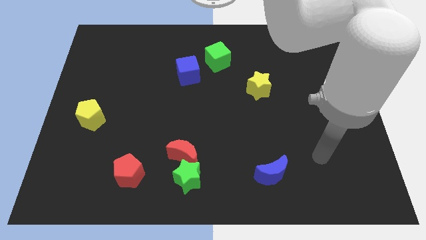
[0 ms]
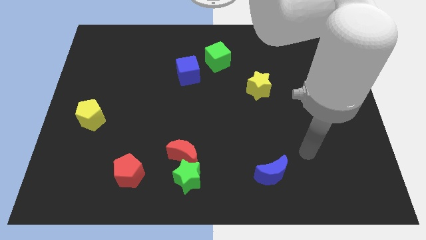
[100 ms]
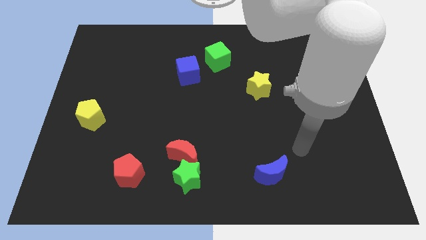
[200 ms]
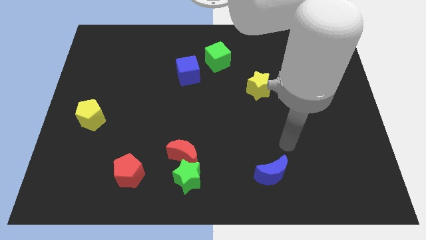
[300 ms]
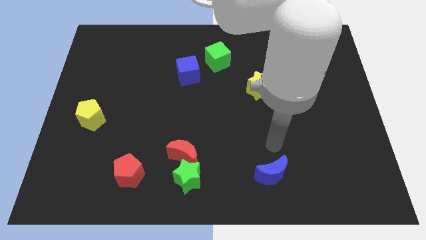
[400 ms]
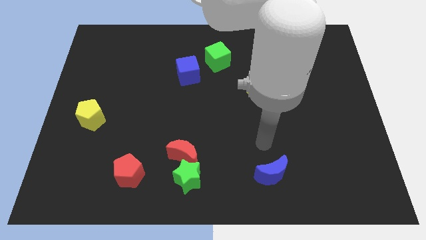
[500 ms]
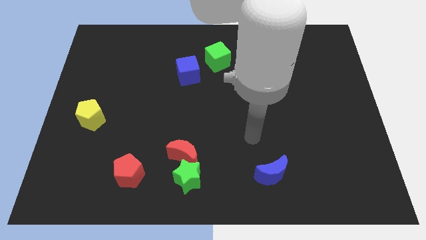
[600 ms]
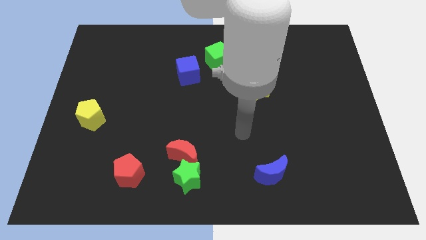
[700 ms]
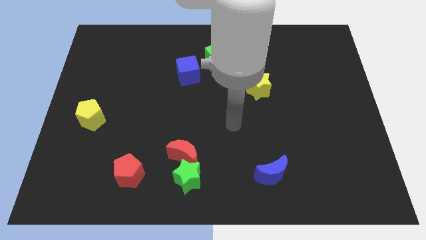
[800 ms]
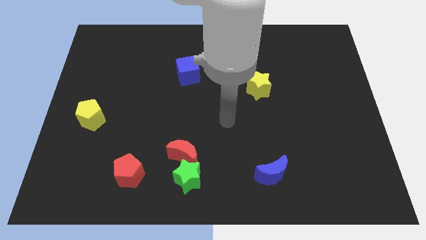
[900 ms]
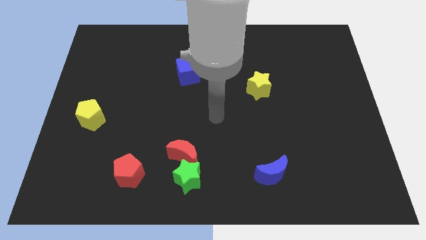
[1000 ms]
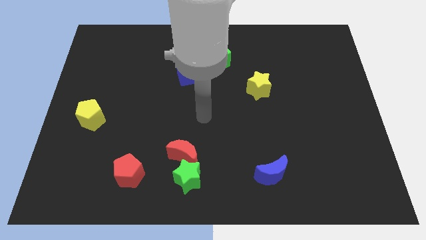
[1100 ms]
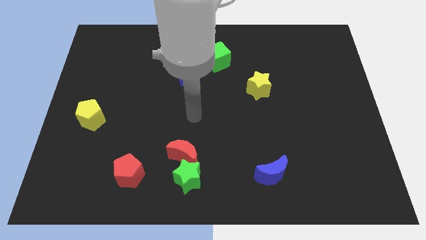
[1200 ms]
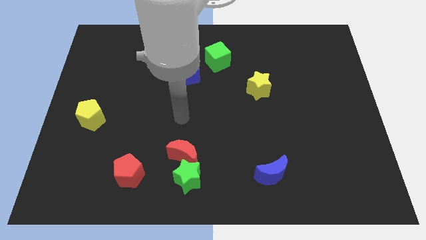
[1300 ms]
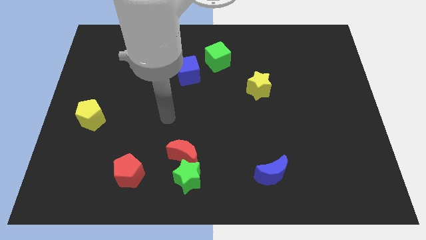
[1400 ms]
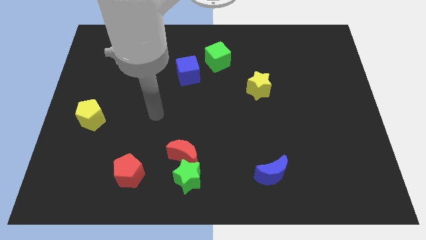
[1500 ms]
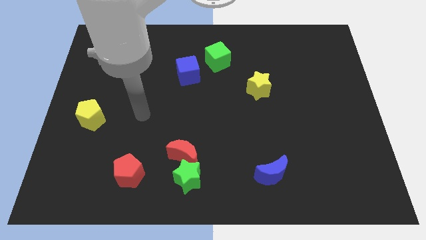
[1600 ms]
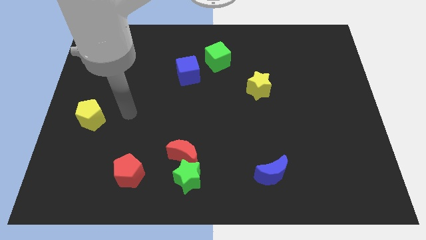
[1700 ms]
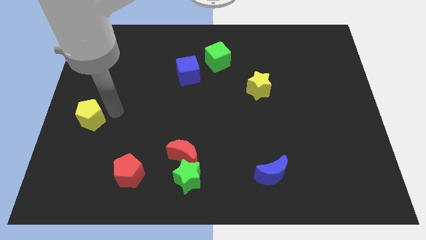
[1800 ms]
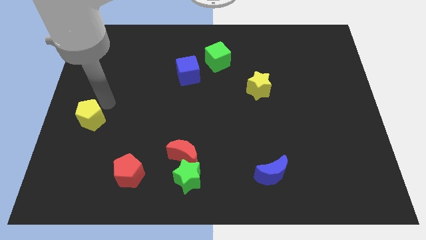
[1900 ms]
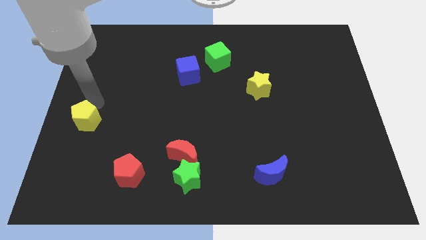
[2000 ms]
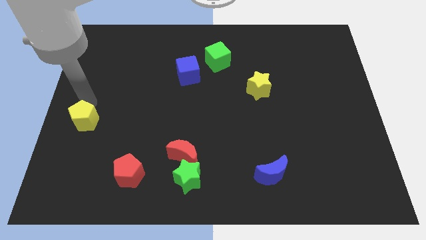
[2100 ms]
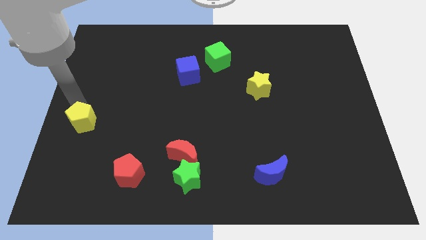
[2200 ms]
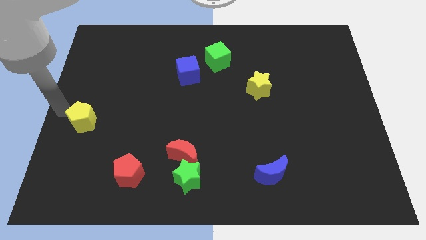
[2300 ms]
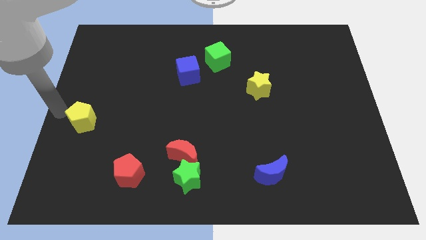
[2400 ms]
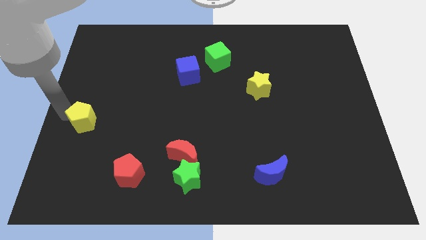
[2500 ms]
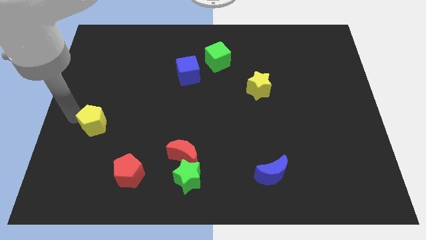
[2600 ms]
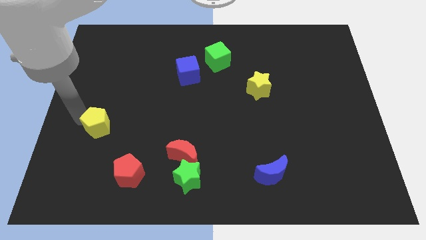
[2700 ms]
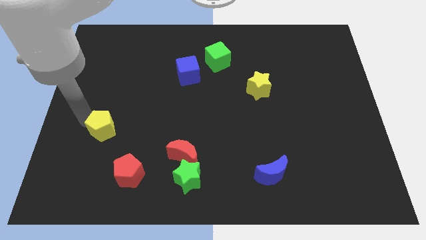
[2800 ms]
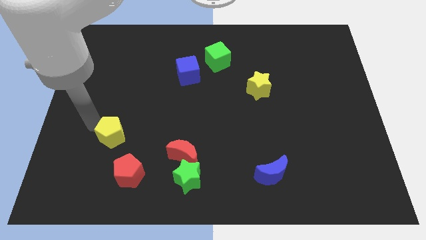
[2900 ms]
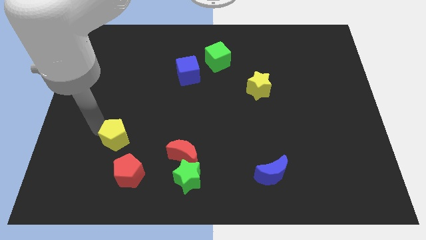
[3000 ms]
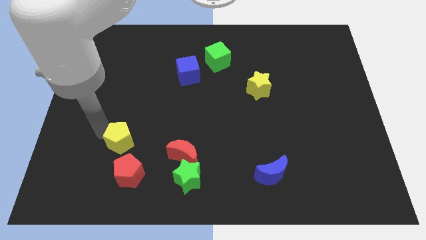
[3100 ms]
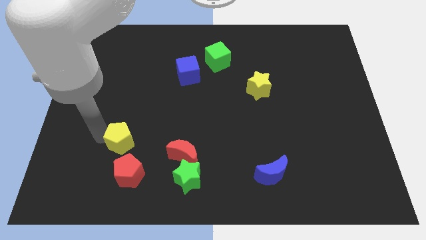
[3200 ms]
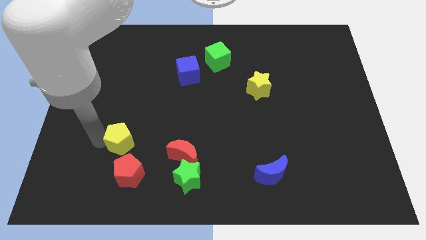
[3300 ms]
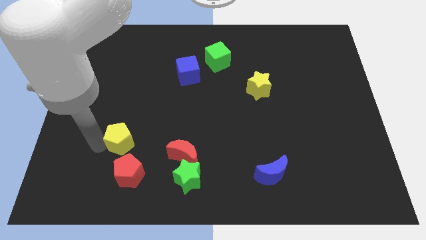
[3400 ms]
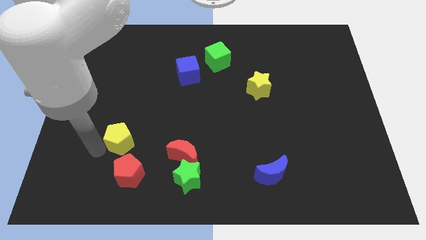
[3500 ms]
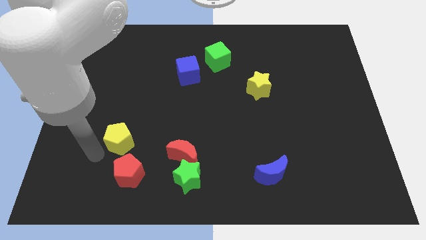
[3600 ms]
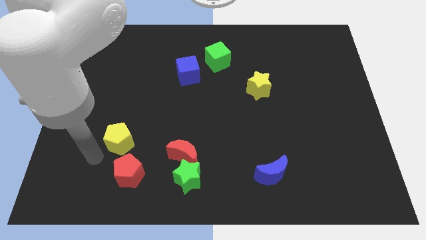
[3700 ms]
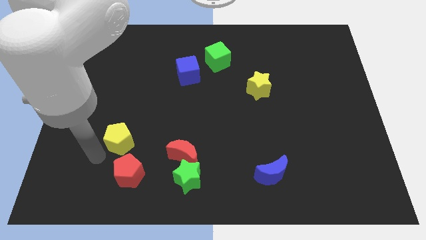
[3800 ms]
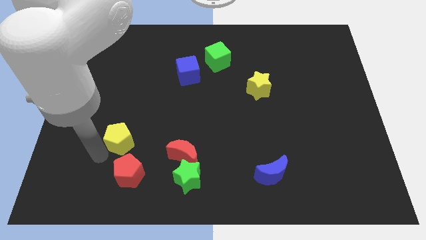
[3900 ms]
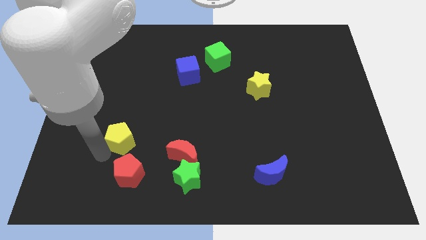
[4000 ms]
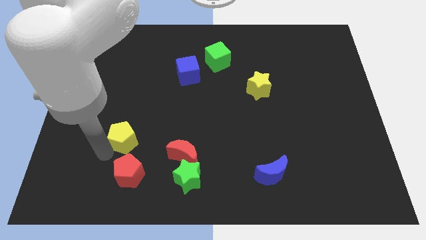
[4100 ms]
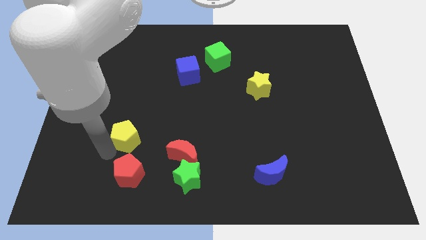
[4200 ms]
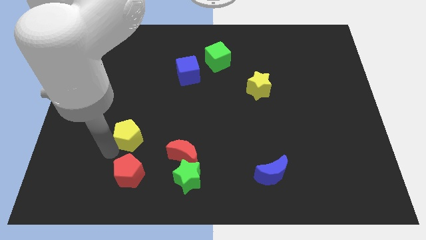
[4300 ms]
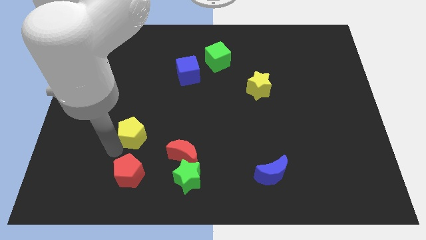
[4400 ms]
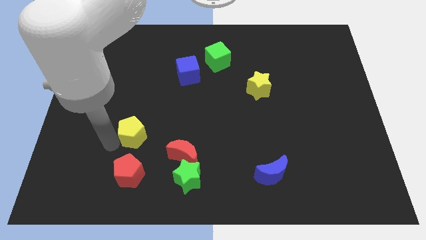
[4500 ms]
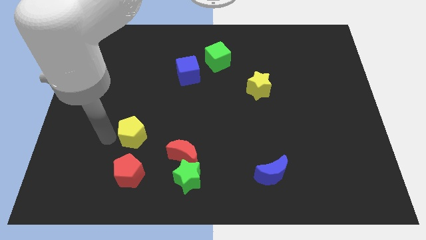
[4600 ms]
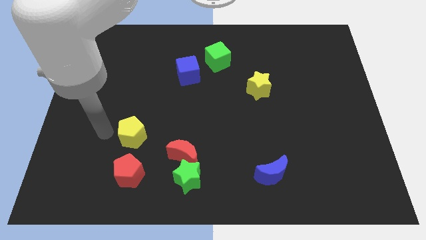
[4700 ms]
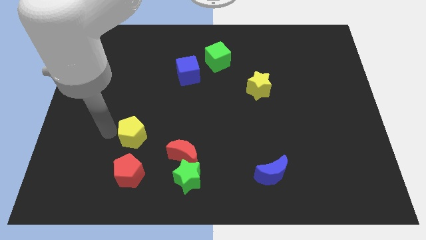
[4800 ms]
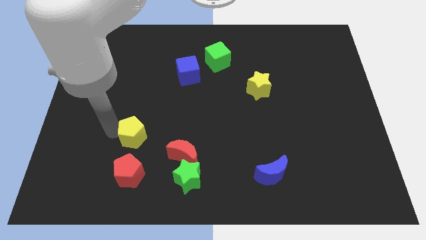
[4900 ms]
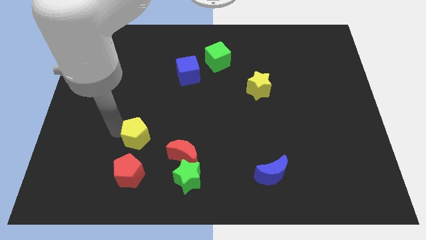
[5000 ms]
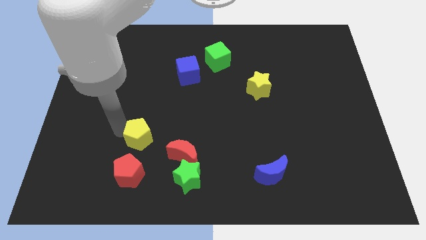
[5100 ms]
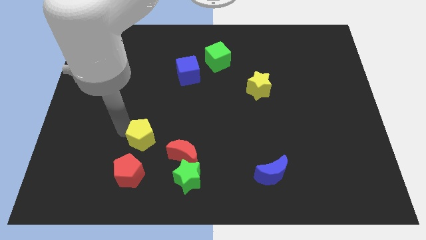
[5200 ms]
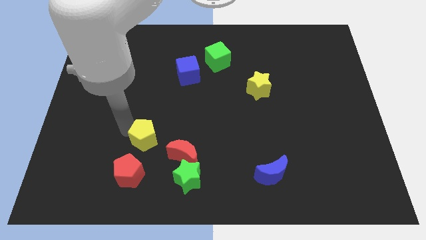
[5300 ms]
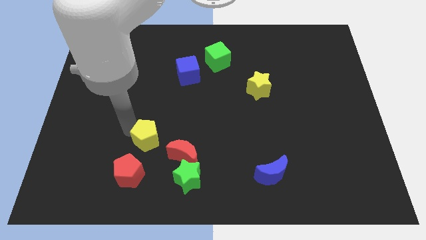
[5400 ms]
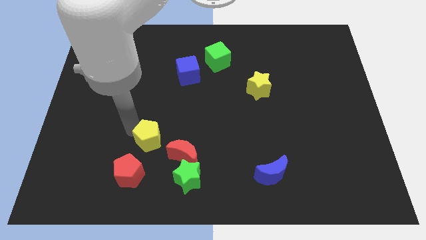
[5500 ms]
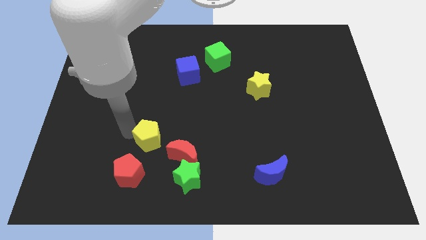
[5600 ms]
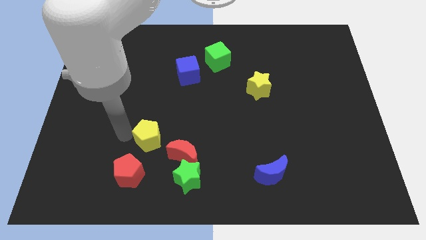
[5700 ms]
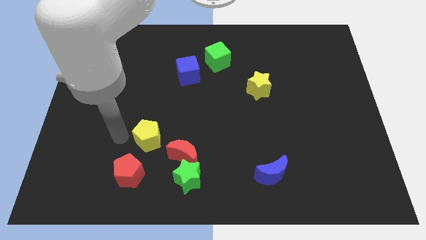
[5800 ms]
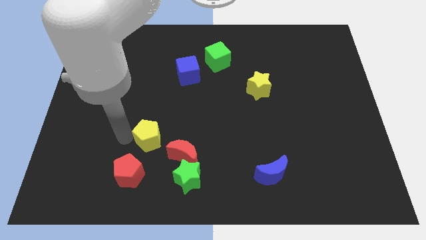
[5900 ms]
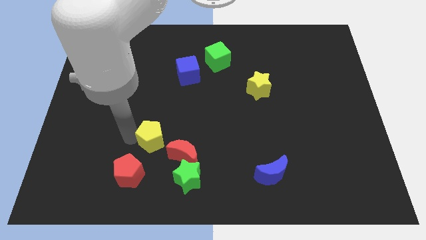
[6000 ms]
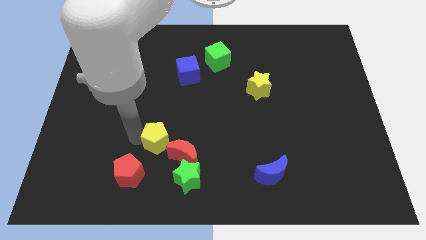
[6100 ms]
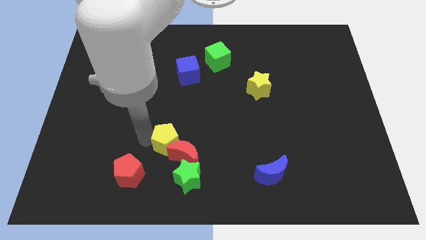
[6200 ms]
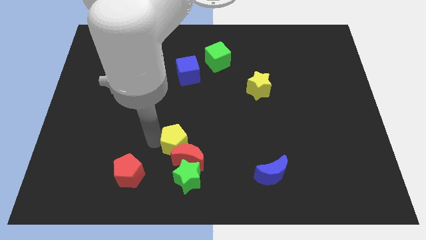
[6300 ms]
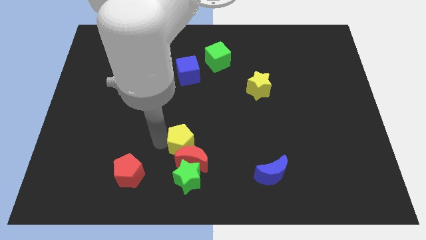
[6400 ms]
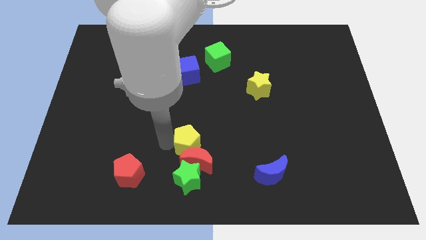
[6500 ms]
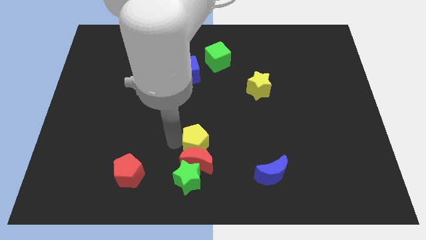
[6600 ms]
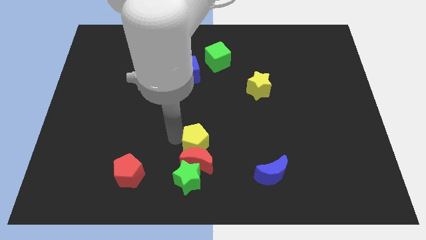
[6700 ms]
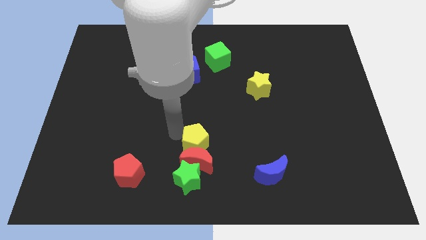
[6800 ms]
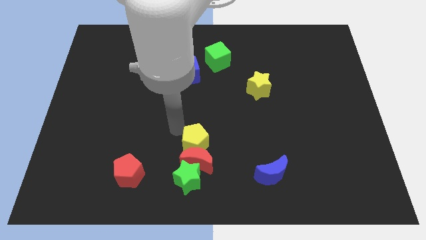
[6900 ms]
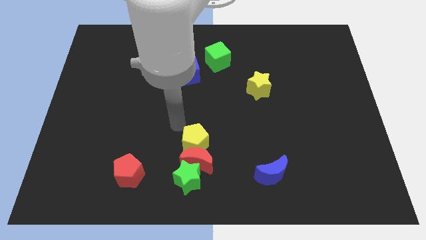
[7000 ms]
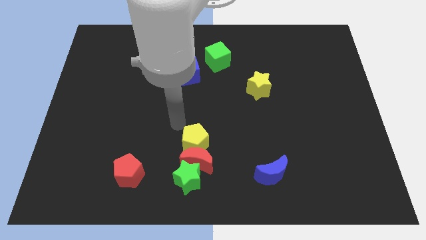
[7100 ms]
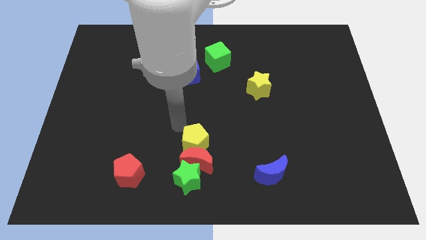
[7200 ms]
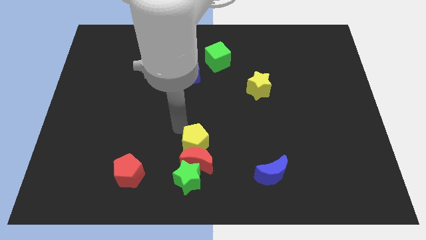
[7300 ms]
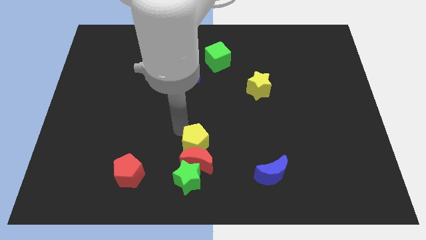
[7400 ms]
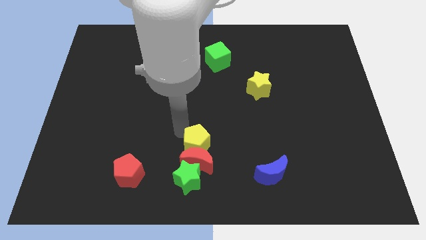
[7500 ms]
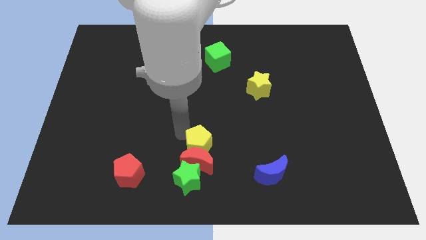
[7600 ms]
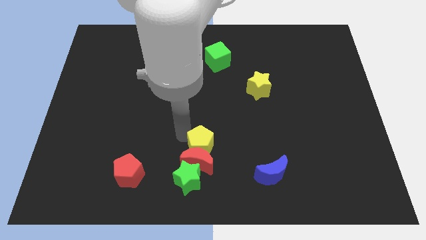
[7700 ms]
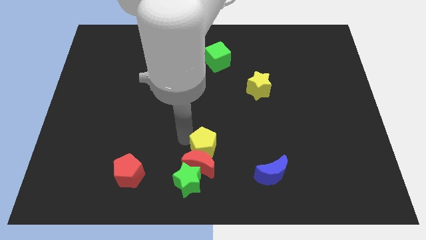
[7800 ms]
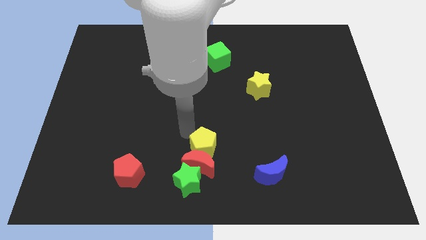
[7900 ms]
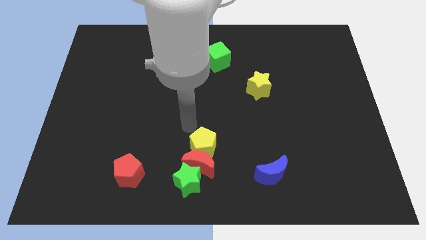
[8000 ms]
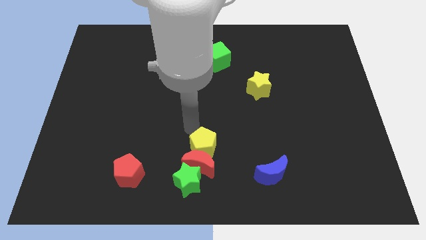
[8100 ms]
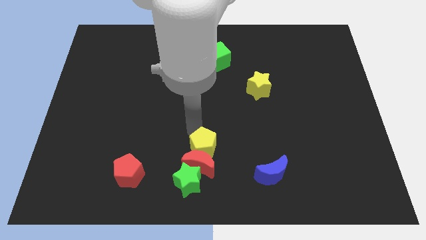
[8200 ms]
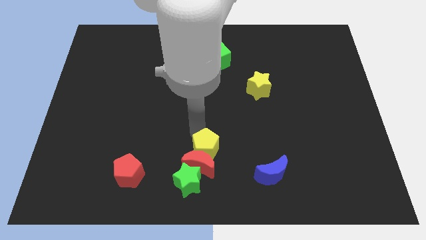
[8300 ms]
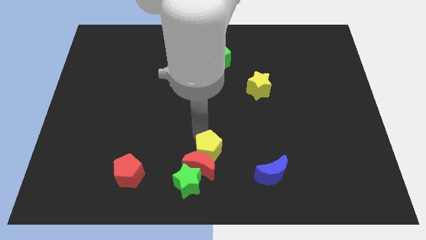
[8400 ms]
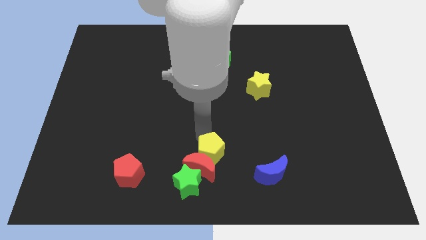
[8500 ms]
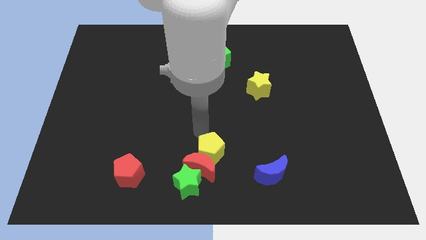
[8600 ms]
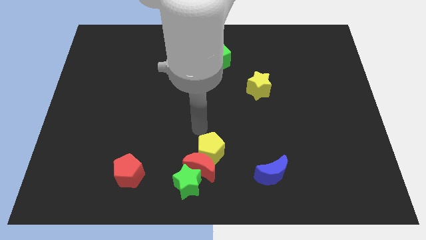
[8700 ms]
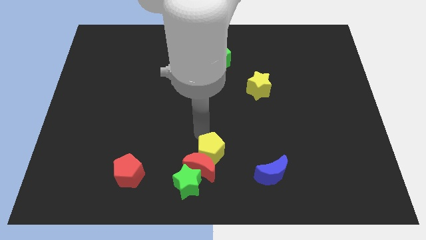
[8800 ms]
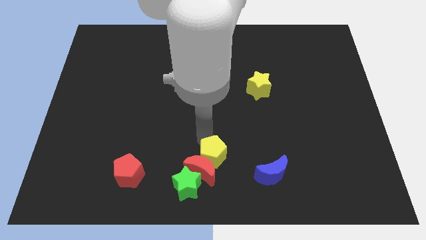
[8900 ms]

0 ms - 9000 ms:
move the yellow pentagon to the left of the blue moon
